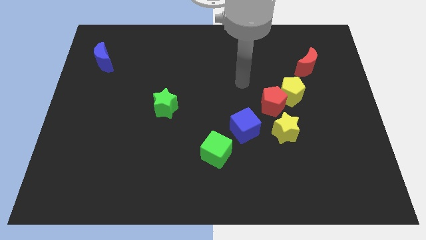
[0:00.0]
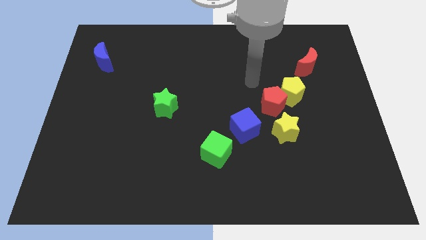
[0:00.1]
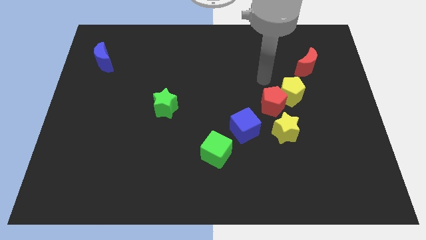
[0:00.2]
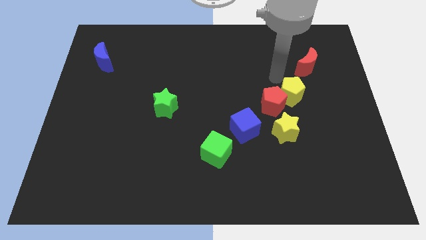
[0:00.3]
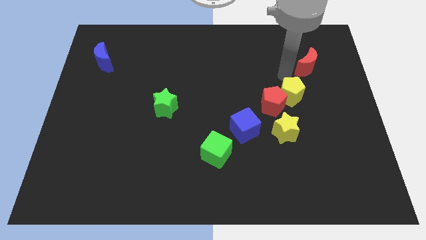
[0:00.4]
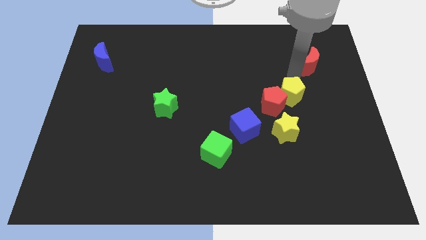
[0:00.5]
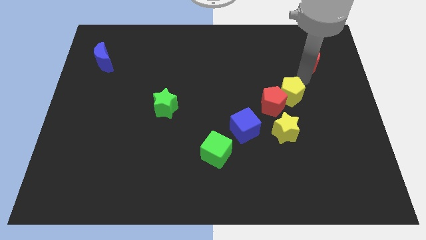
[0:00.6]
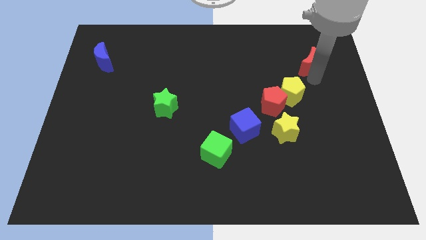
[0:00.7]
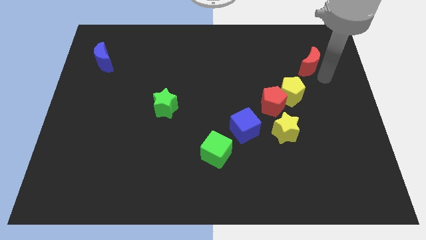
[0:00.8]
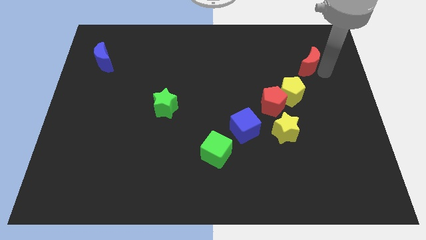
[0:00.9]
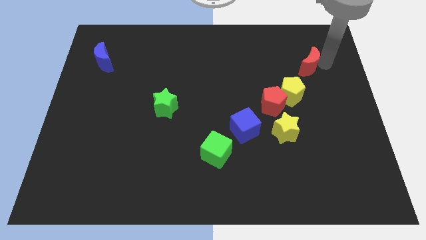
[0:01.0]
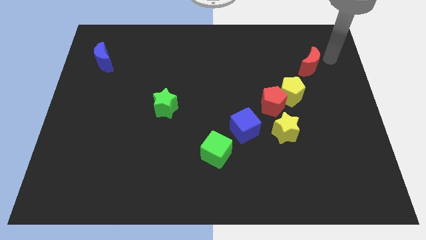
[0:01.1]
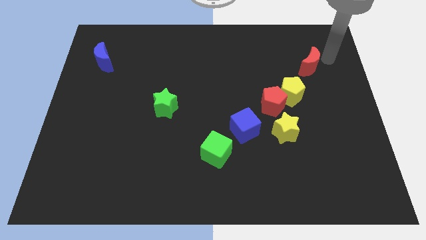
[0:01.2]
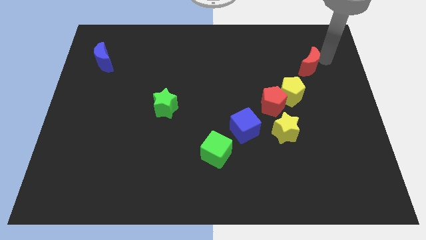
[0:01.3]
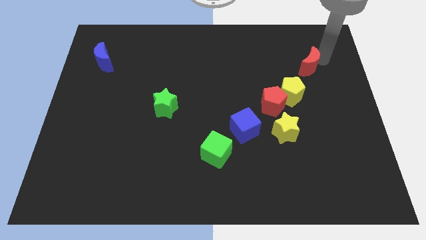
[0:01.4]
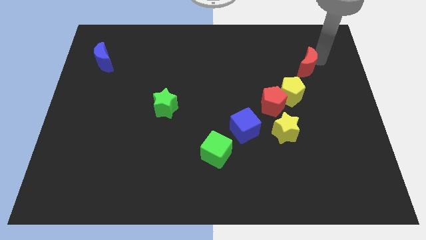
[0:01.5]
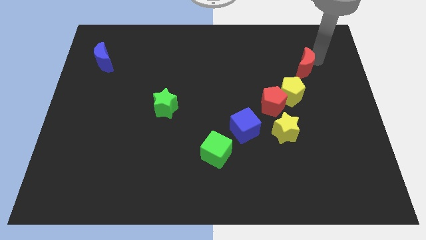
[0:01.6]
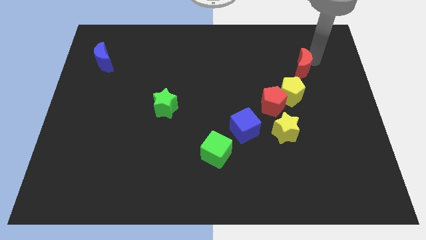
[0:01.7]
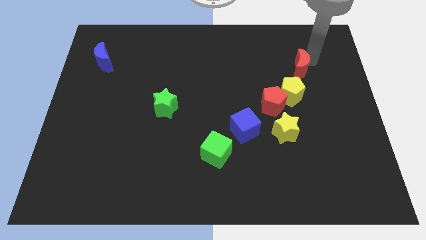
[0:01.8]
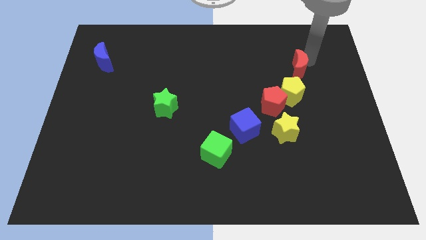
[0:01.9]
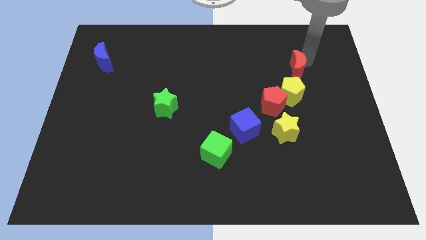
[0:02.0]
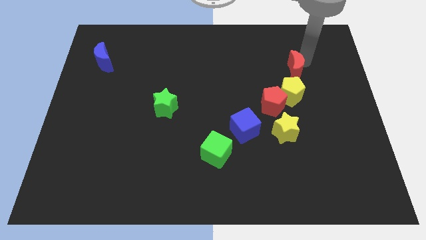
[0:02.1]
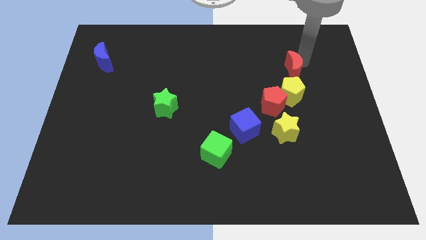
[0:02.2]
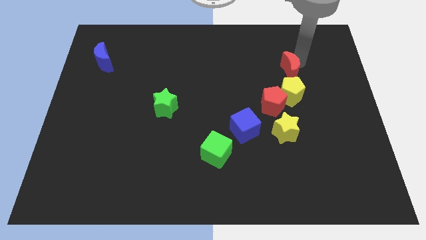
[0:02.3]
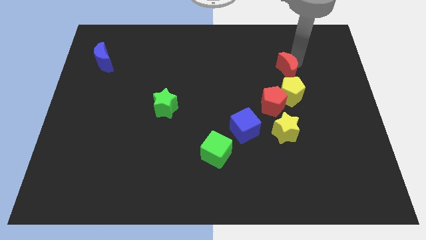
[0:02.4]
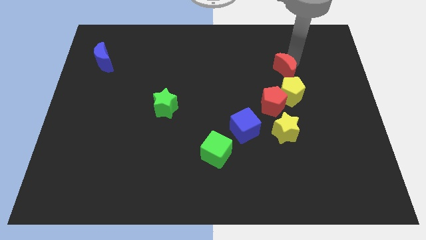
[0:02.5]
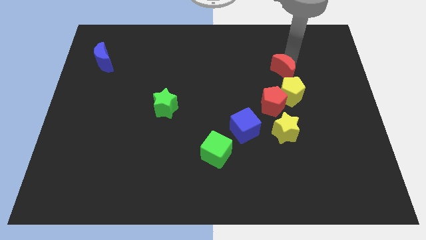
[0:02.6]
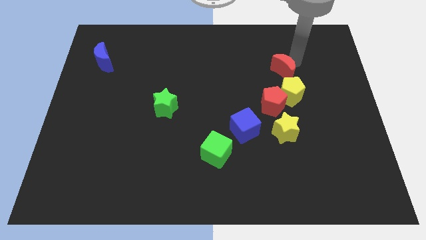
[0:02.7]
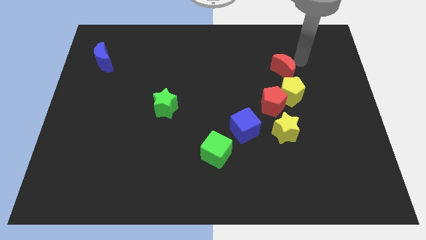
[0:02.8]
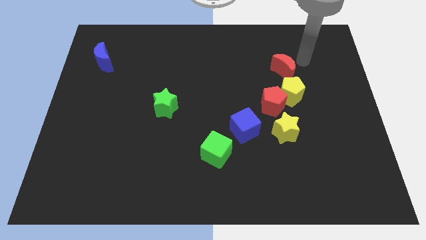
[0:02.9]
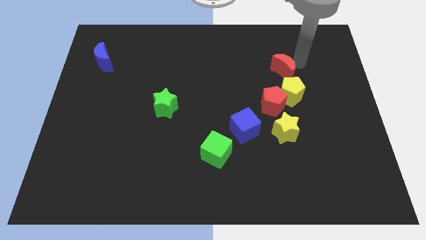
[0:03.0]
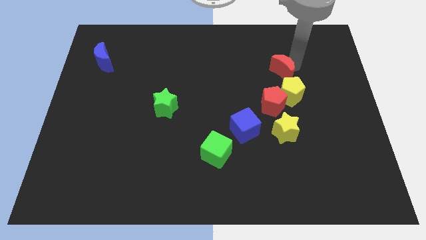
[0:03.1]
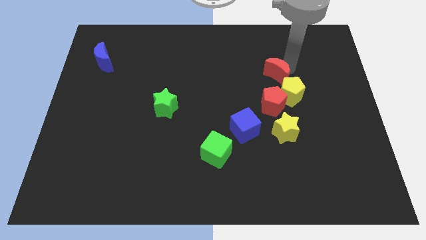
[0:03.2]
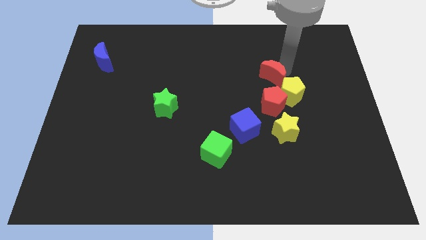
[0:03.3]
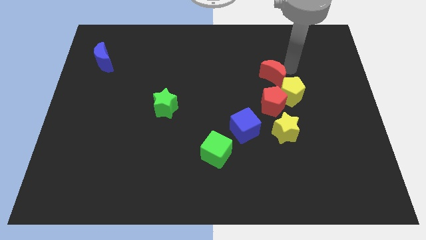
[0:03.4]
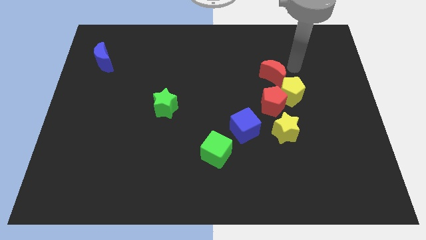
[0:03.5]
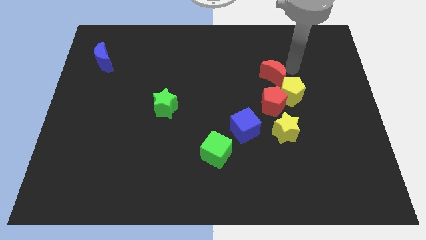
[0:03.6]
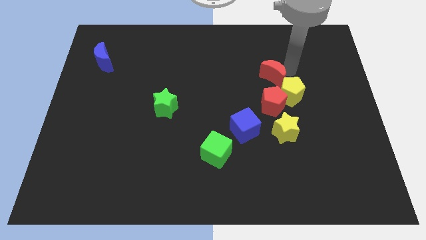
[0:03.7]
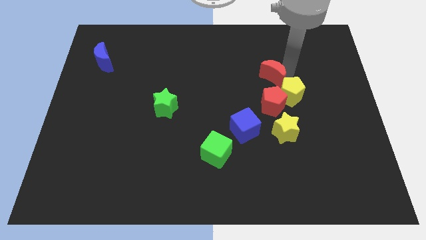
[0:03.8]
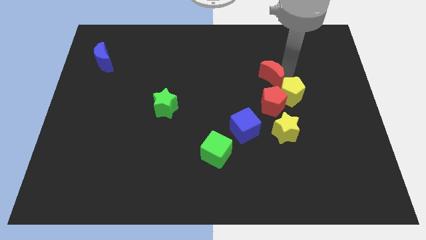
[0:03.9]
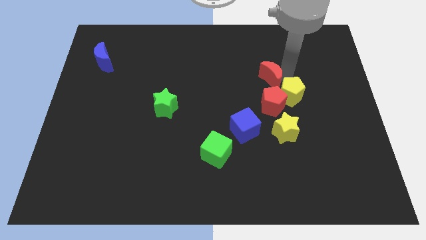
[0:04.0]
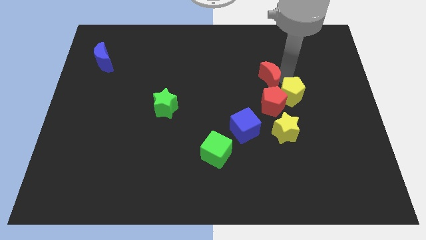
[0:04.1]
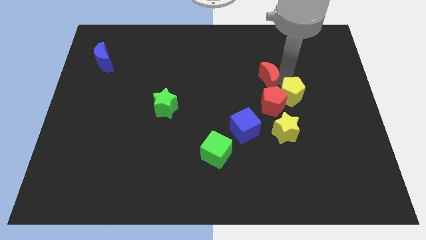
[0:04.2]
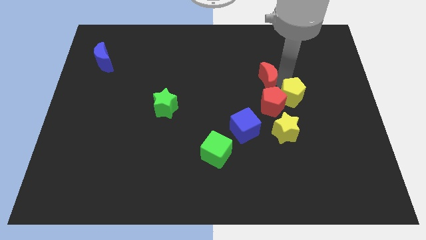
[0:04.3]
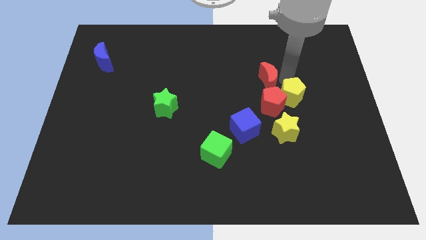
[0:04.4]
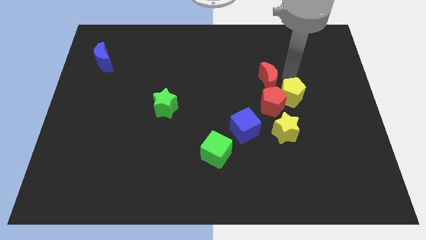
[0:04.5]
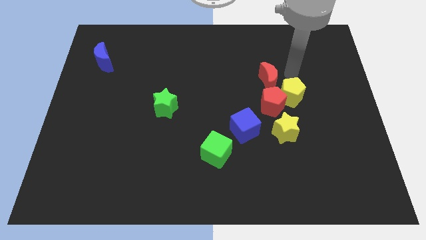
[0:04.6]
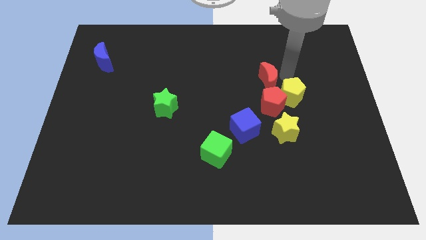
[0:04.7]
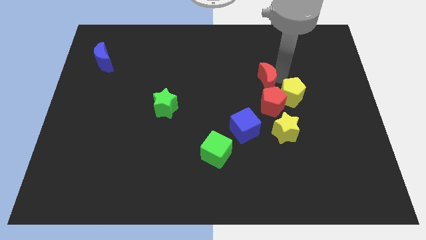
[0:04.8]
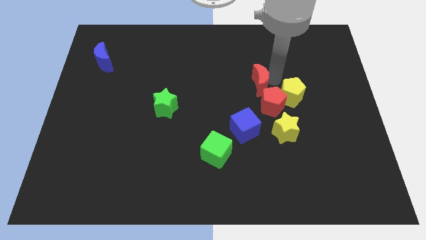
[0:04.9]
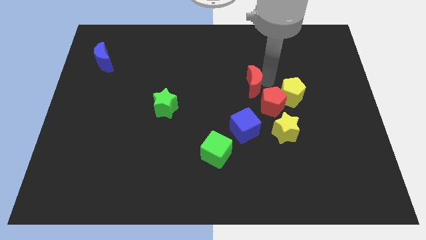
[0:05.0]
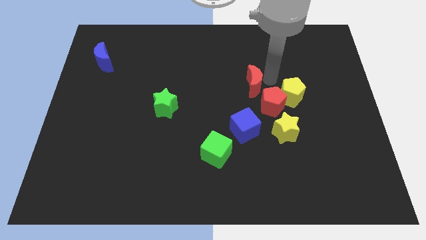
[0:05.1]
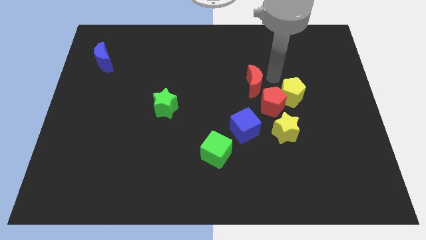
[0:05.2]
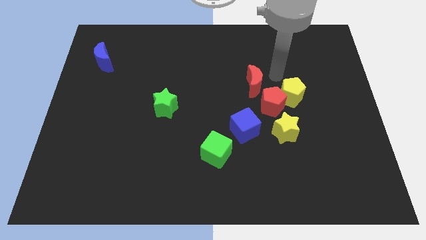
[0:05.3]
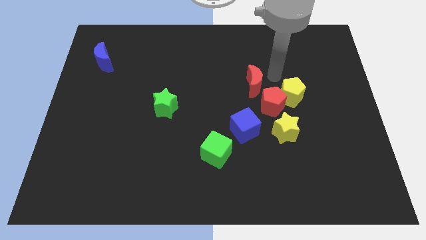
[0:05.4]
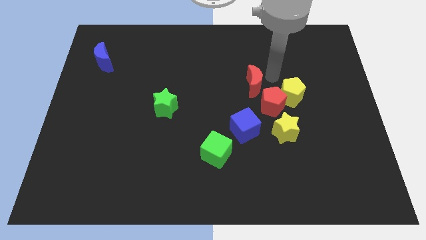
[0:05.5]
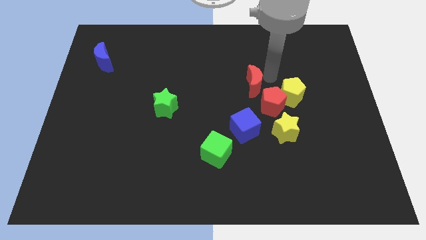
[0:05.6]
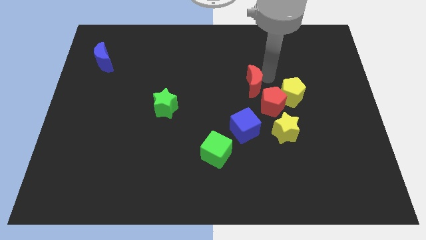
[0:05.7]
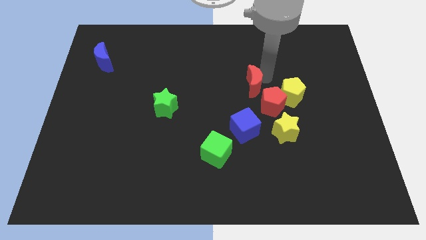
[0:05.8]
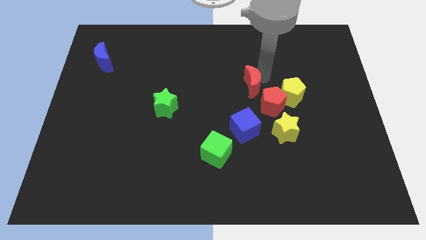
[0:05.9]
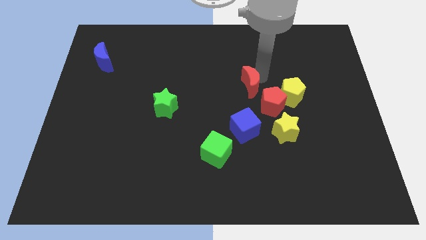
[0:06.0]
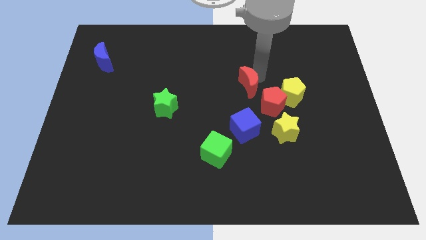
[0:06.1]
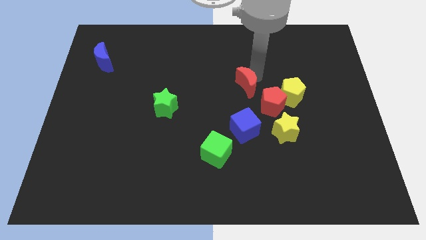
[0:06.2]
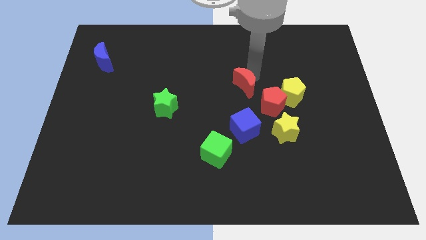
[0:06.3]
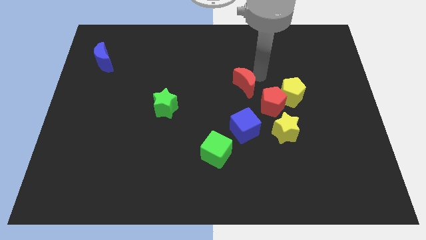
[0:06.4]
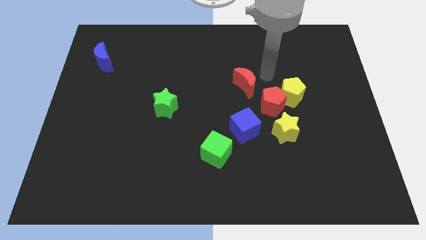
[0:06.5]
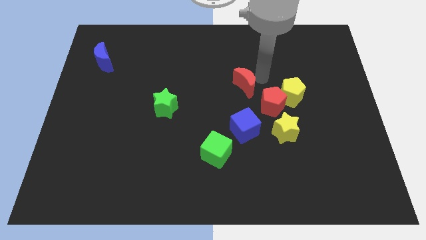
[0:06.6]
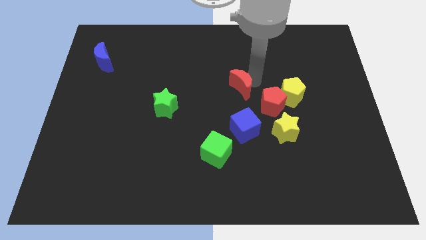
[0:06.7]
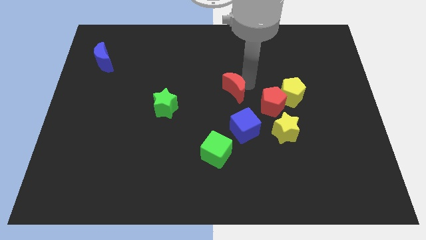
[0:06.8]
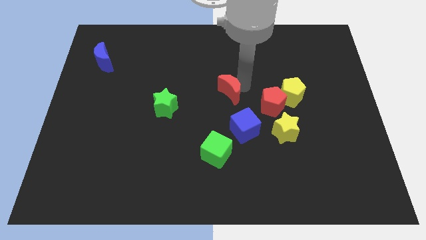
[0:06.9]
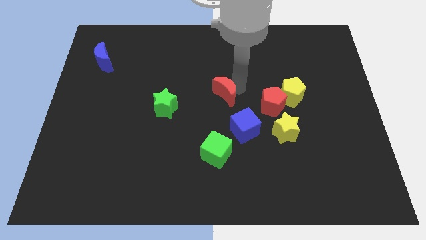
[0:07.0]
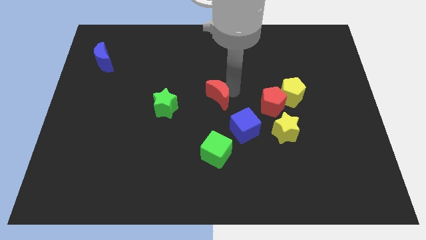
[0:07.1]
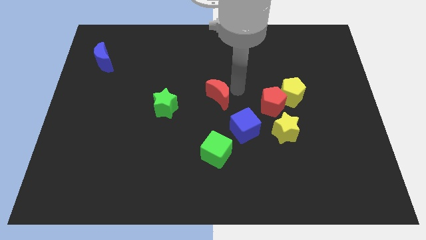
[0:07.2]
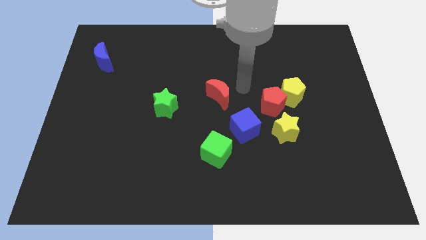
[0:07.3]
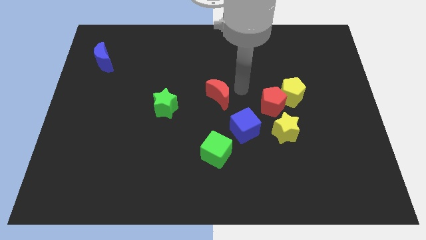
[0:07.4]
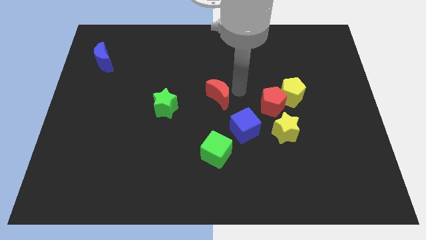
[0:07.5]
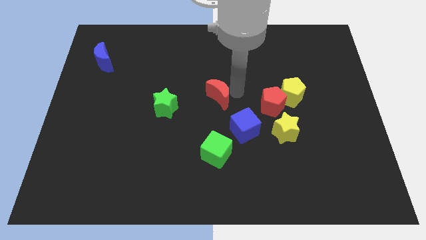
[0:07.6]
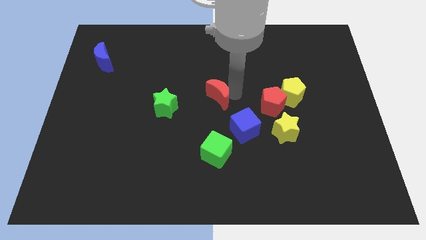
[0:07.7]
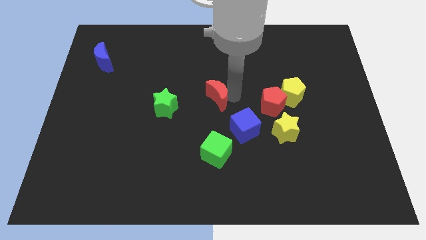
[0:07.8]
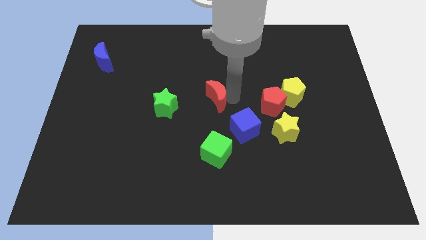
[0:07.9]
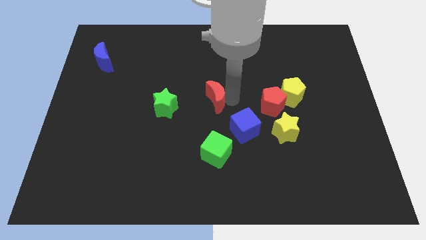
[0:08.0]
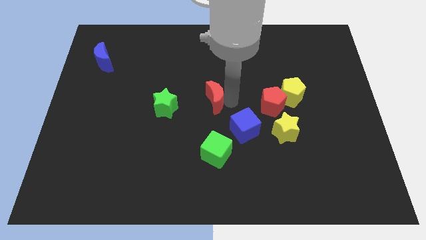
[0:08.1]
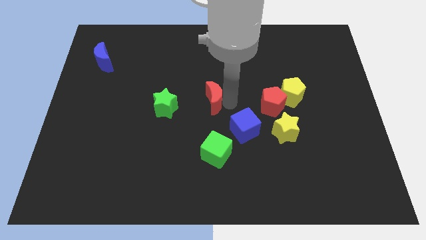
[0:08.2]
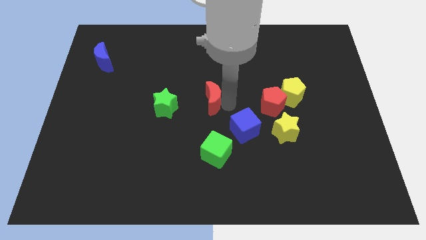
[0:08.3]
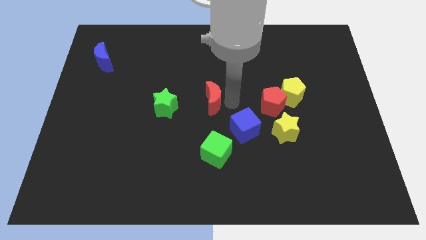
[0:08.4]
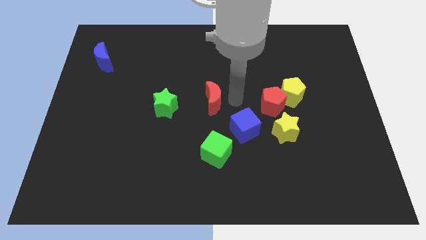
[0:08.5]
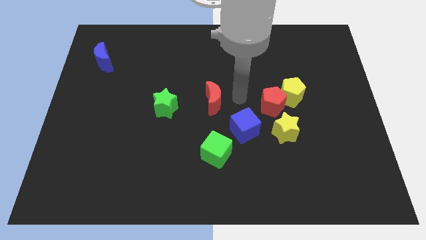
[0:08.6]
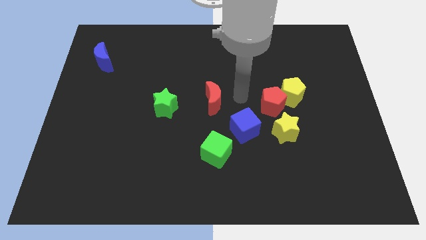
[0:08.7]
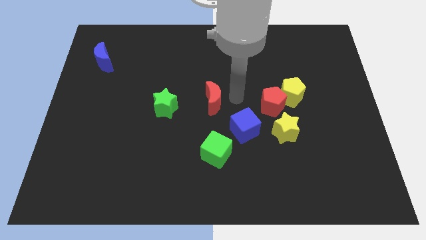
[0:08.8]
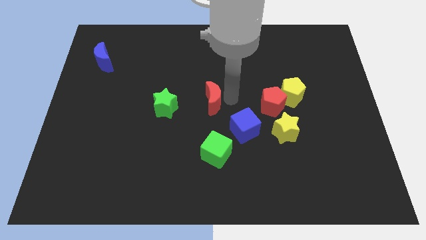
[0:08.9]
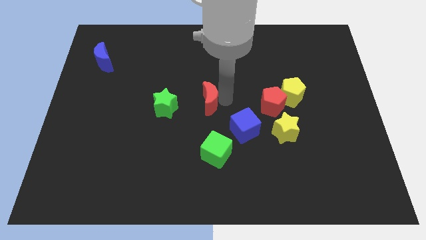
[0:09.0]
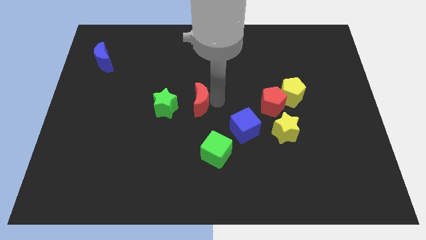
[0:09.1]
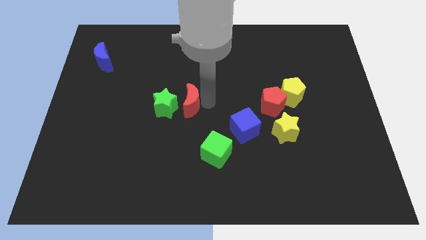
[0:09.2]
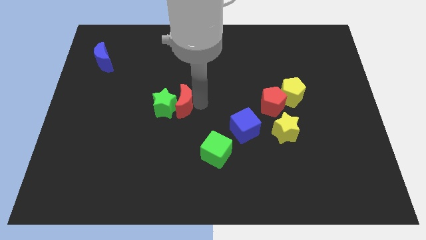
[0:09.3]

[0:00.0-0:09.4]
slide the red moon close to the green star
